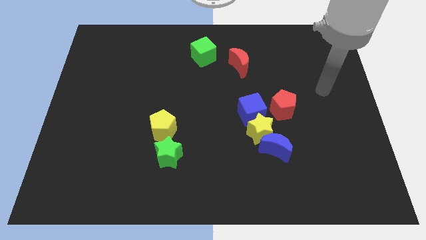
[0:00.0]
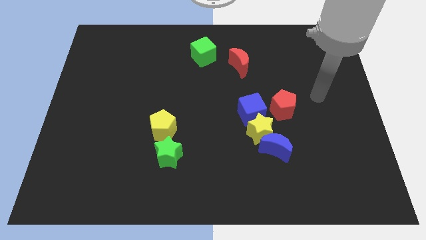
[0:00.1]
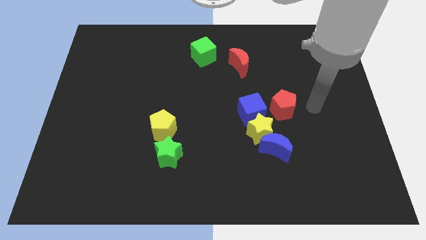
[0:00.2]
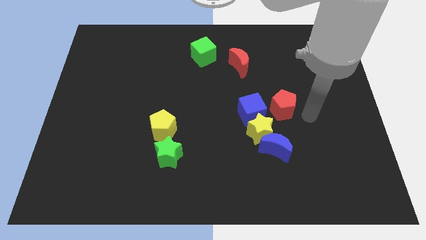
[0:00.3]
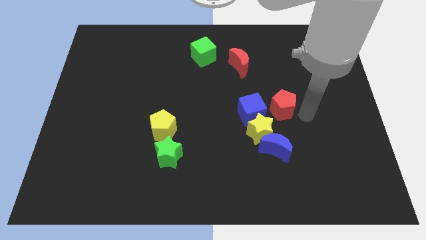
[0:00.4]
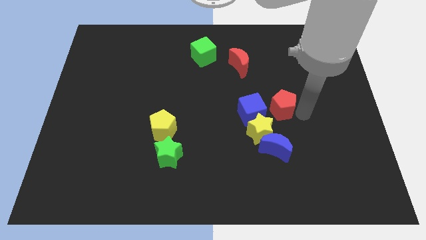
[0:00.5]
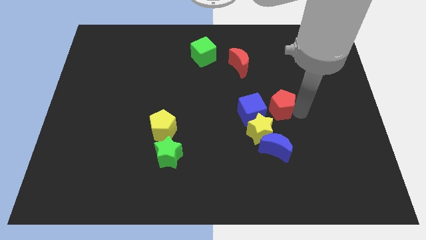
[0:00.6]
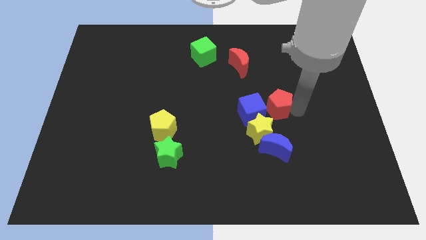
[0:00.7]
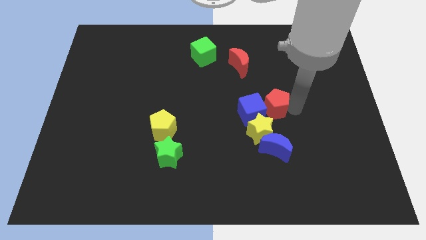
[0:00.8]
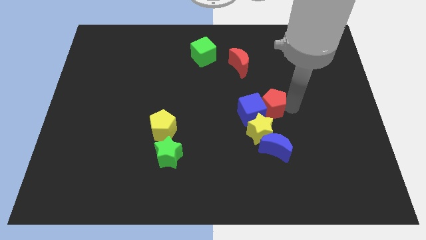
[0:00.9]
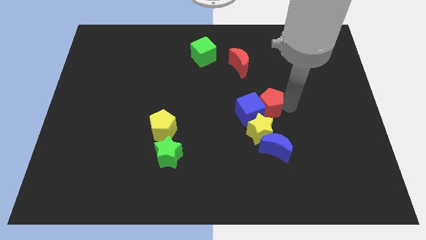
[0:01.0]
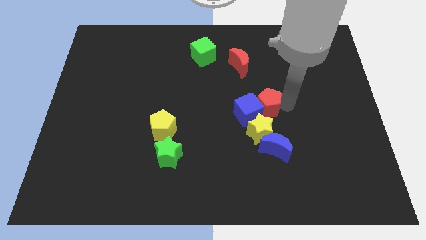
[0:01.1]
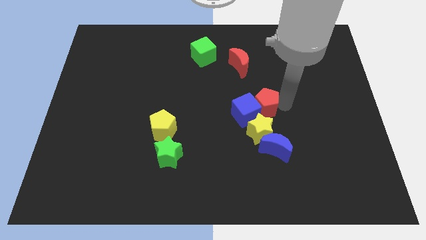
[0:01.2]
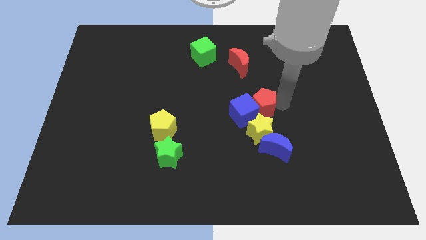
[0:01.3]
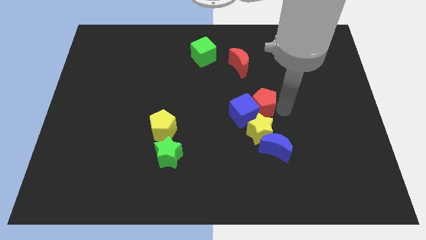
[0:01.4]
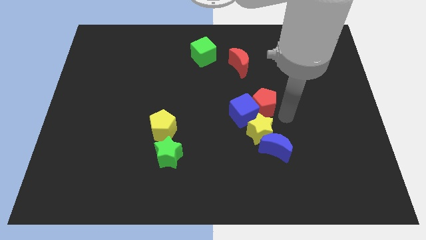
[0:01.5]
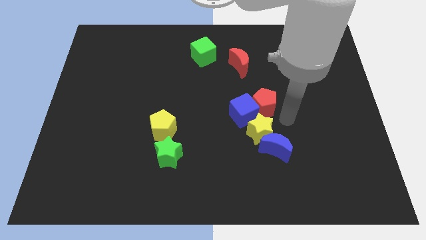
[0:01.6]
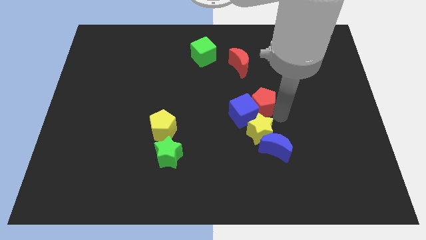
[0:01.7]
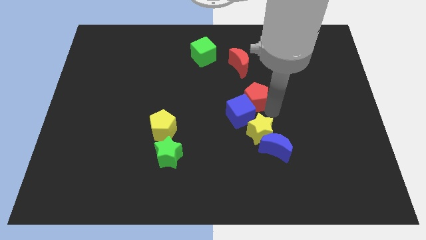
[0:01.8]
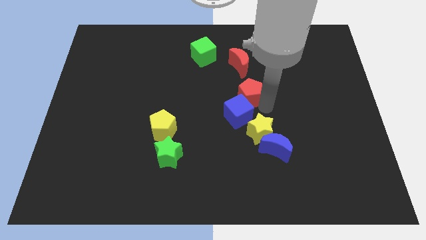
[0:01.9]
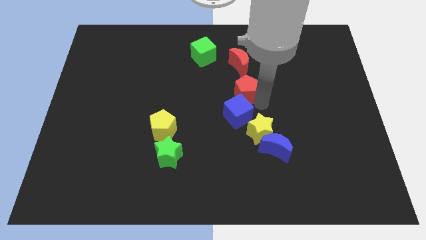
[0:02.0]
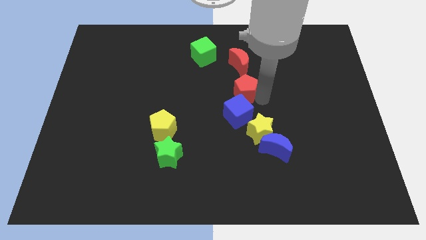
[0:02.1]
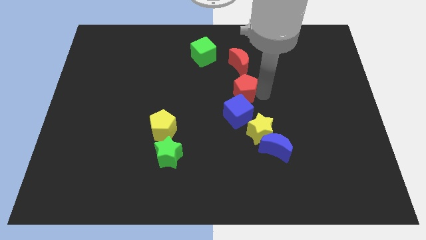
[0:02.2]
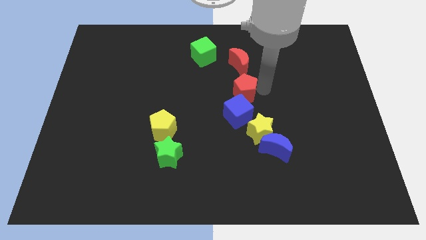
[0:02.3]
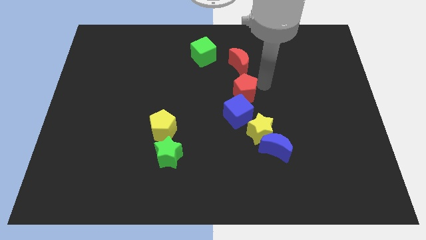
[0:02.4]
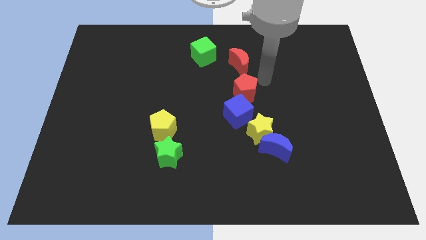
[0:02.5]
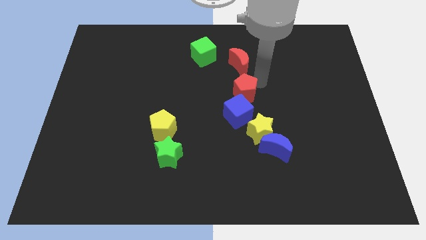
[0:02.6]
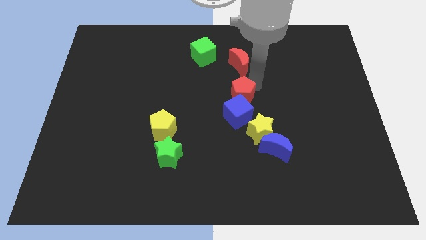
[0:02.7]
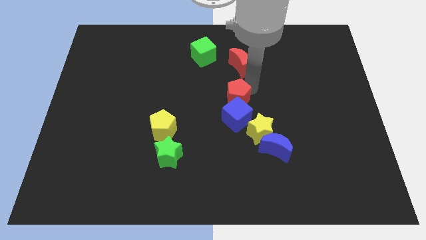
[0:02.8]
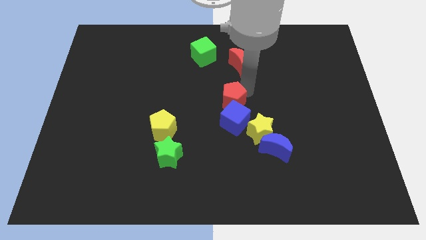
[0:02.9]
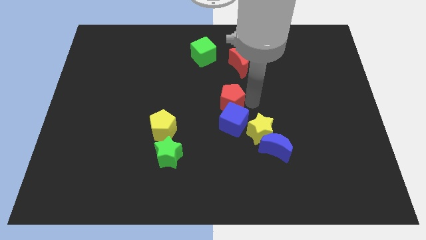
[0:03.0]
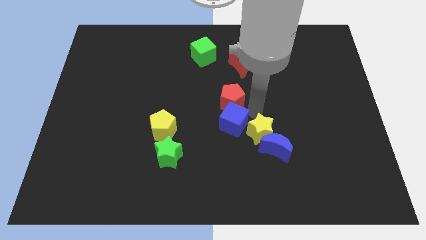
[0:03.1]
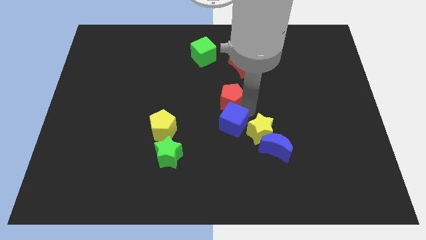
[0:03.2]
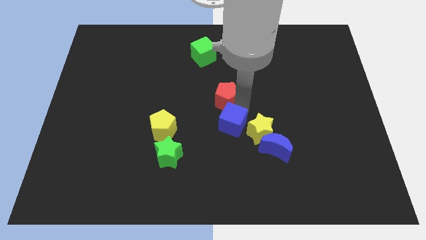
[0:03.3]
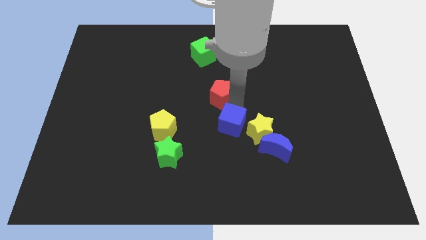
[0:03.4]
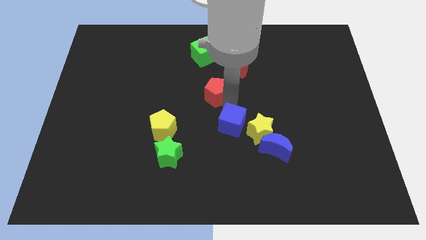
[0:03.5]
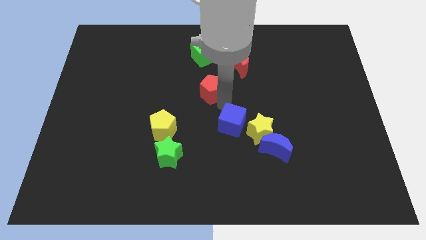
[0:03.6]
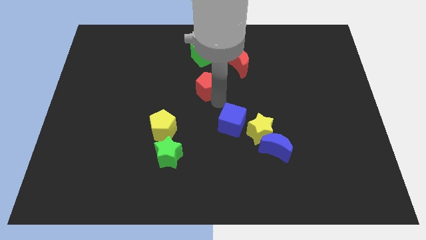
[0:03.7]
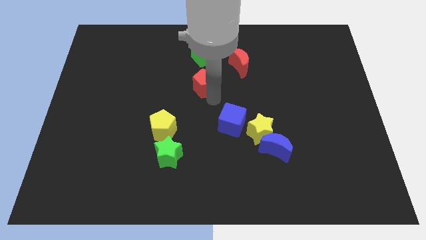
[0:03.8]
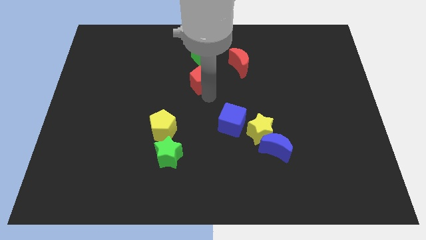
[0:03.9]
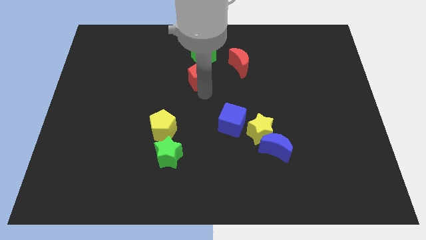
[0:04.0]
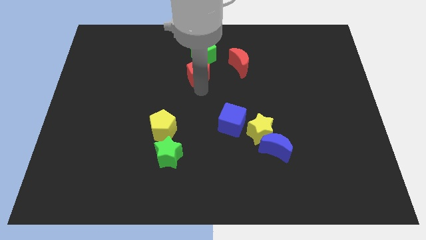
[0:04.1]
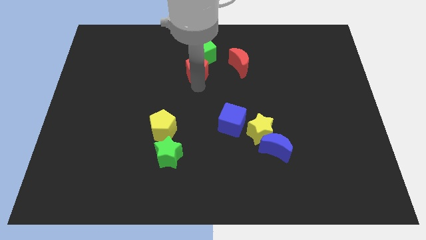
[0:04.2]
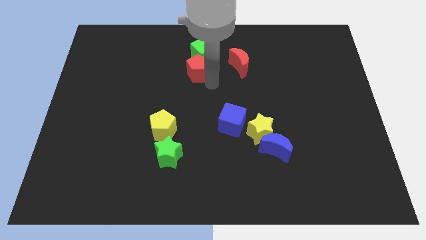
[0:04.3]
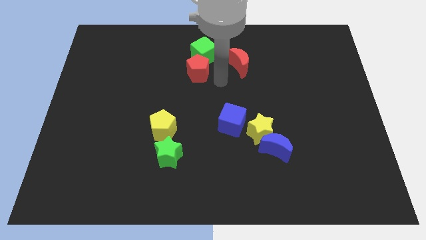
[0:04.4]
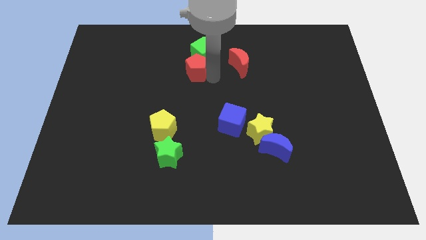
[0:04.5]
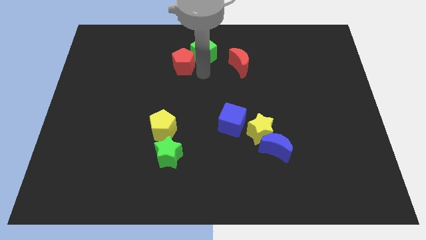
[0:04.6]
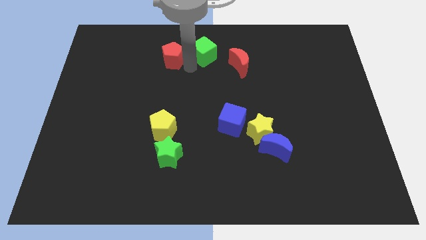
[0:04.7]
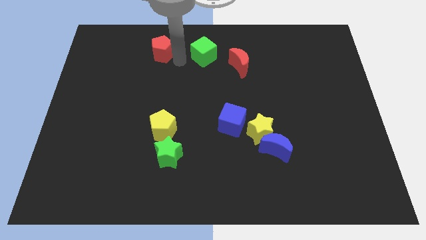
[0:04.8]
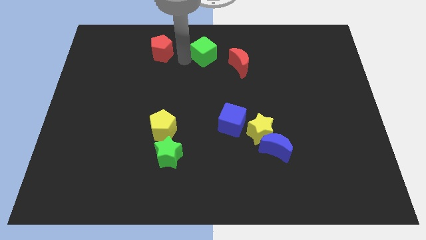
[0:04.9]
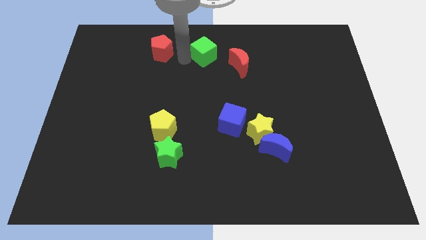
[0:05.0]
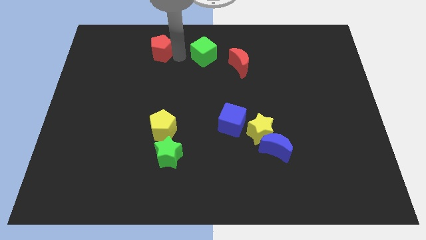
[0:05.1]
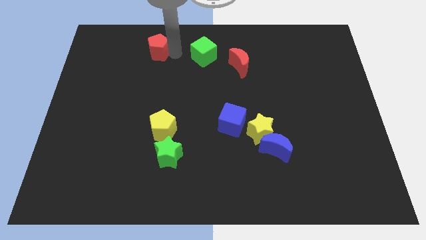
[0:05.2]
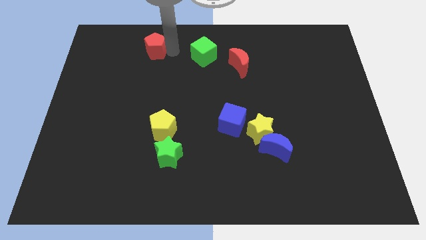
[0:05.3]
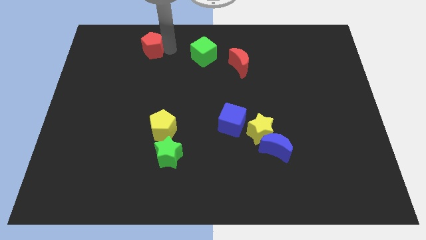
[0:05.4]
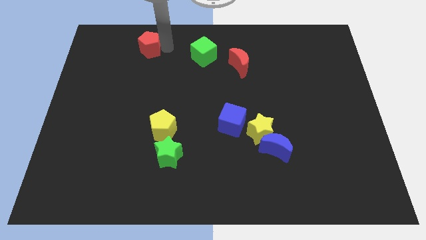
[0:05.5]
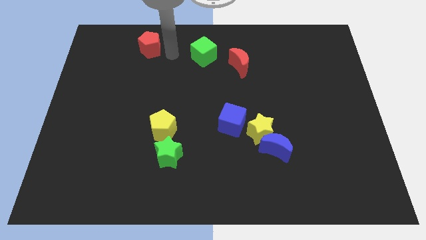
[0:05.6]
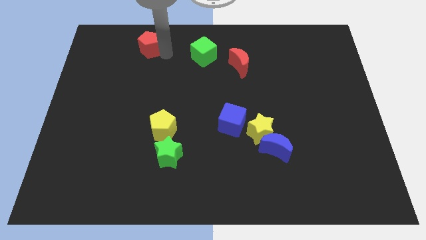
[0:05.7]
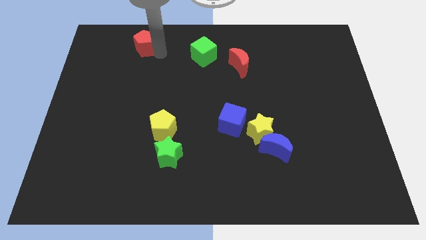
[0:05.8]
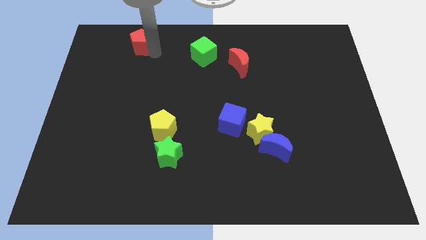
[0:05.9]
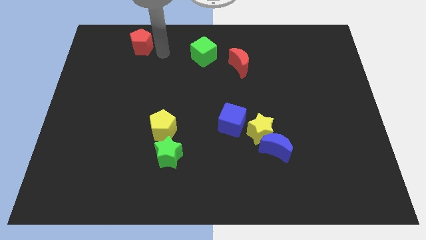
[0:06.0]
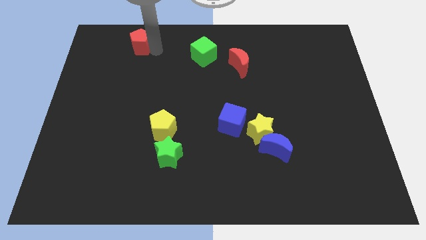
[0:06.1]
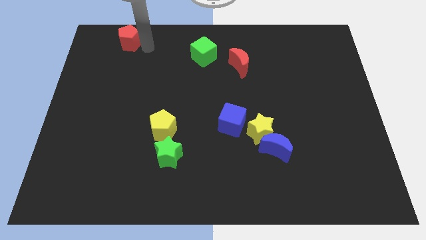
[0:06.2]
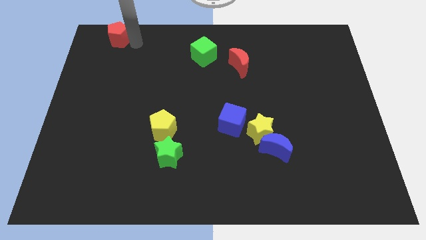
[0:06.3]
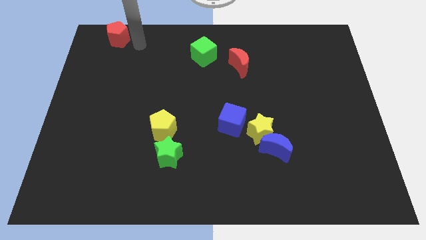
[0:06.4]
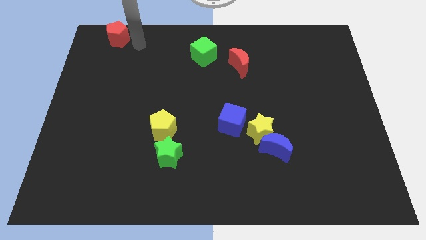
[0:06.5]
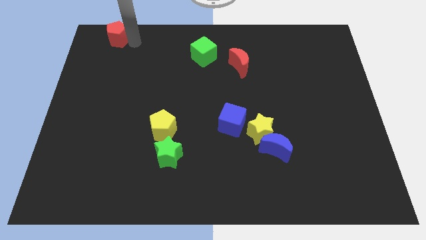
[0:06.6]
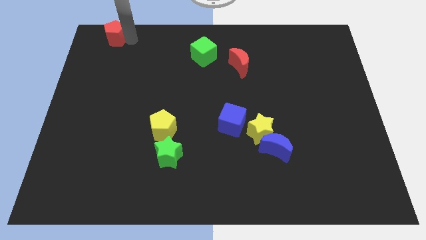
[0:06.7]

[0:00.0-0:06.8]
push the red pentagon to the top left corner
